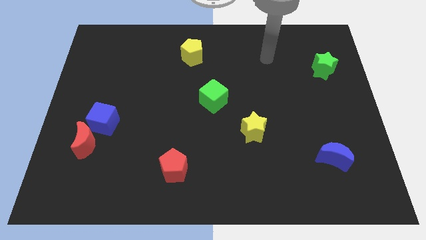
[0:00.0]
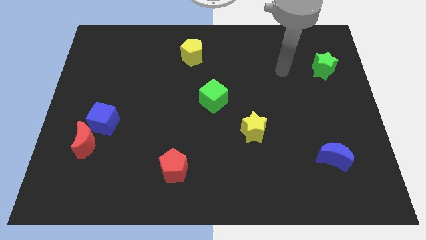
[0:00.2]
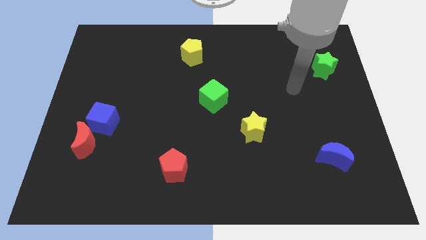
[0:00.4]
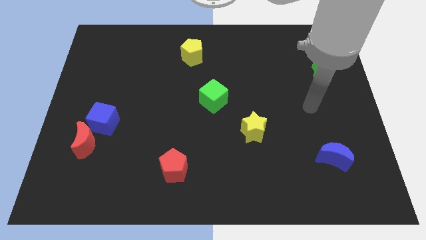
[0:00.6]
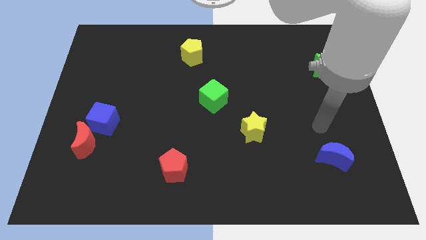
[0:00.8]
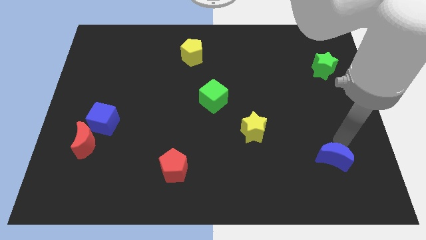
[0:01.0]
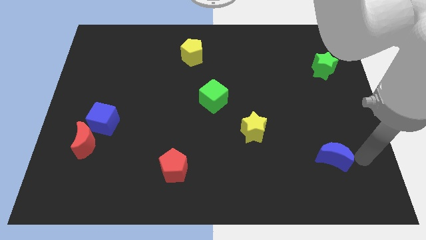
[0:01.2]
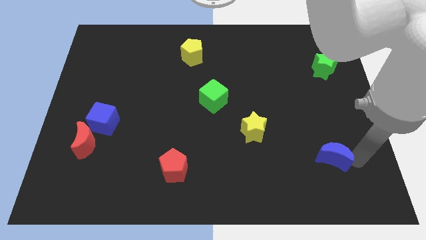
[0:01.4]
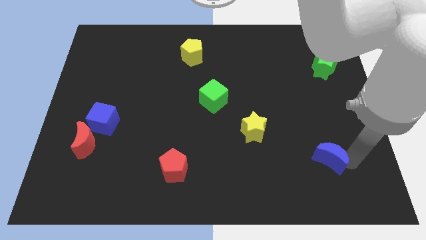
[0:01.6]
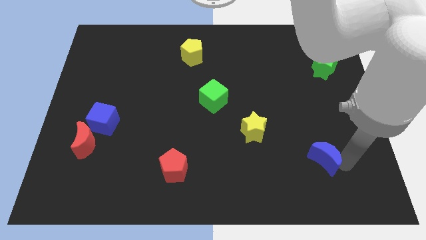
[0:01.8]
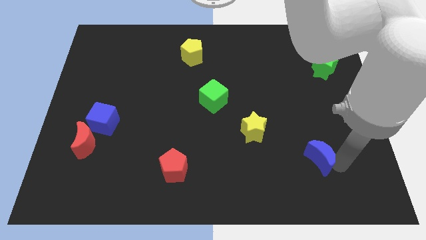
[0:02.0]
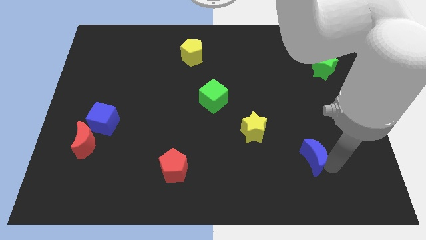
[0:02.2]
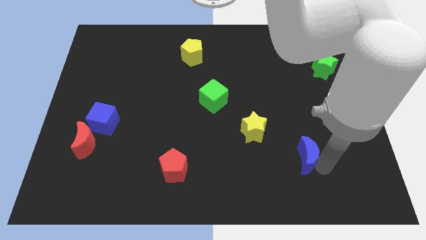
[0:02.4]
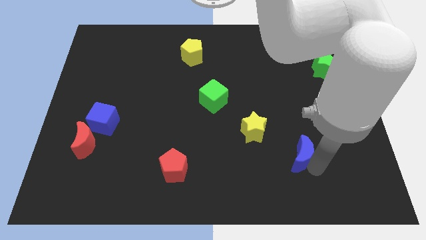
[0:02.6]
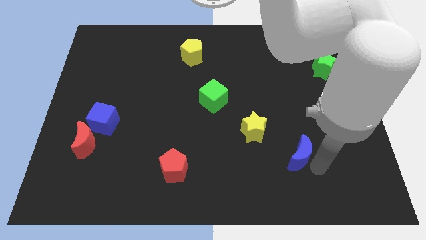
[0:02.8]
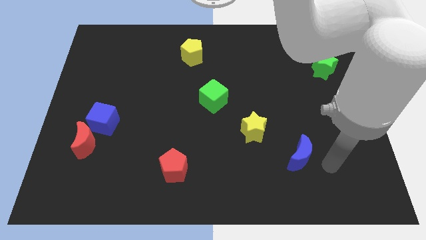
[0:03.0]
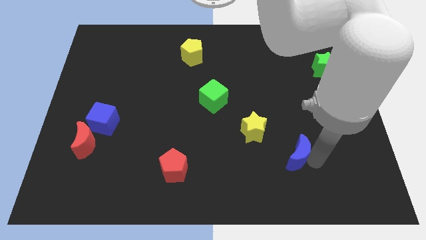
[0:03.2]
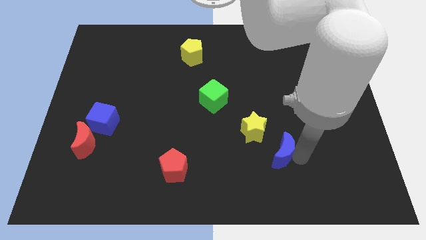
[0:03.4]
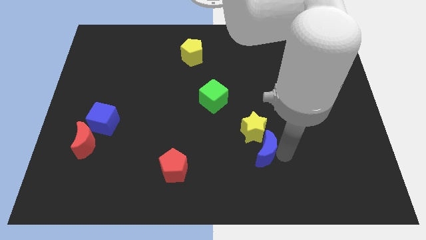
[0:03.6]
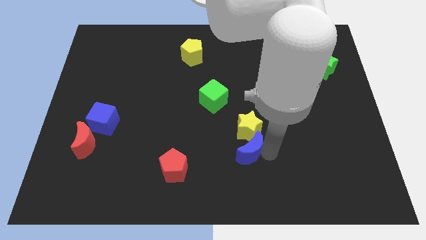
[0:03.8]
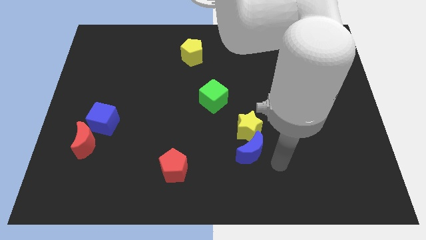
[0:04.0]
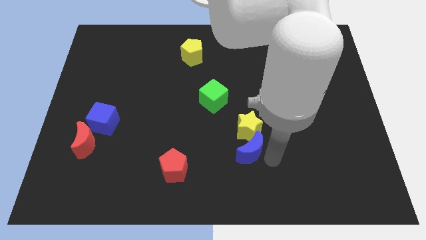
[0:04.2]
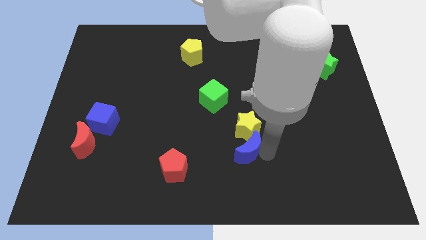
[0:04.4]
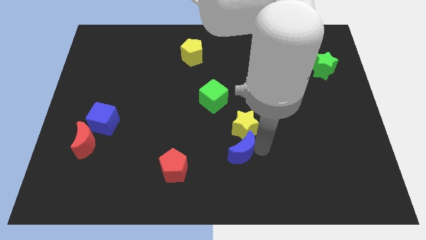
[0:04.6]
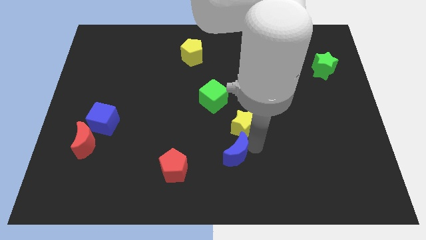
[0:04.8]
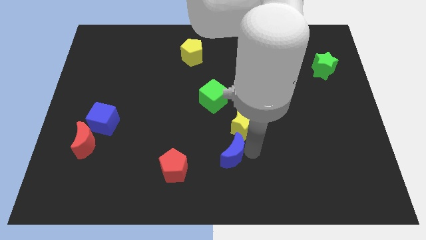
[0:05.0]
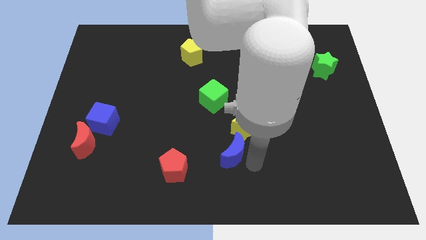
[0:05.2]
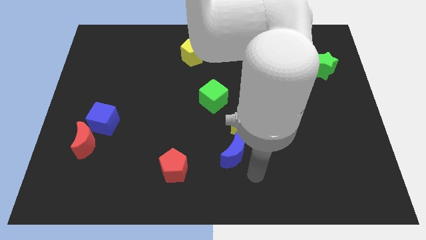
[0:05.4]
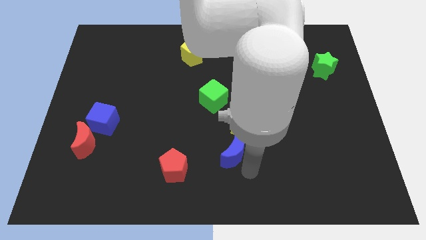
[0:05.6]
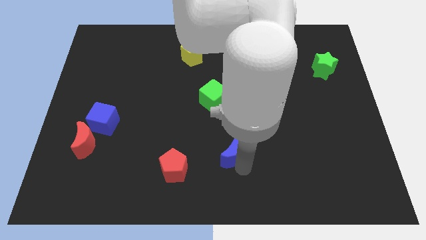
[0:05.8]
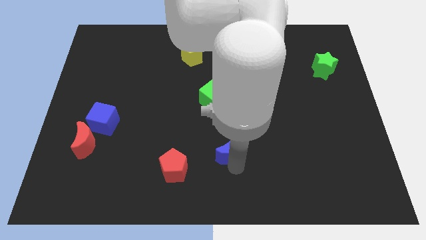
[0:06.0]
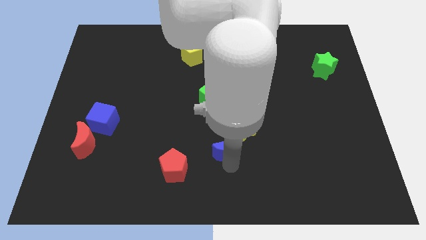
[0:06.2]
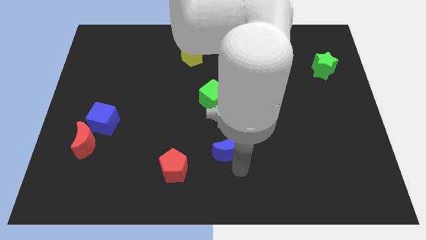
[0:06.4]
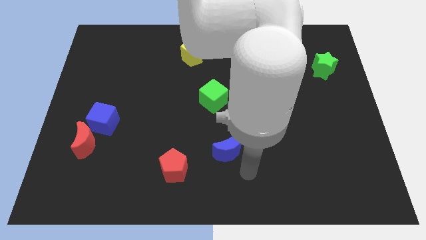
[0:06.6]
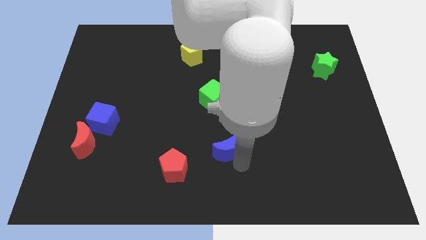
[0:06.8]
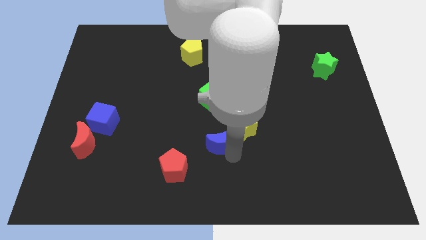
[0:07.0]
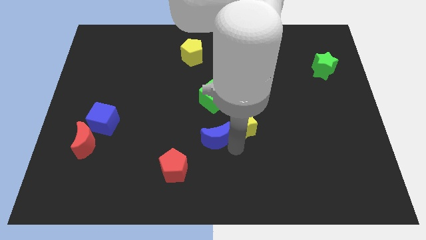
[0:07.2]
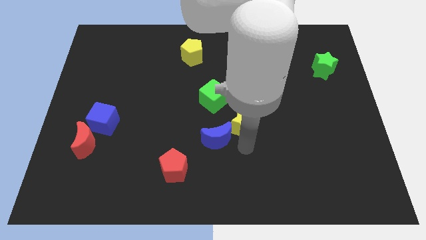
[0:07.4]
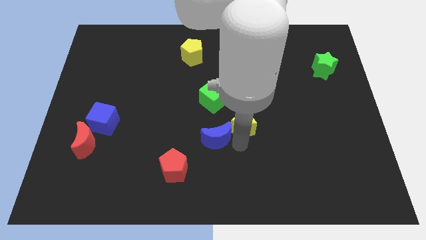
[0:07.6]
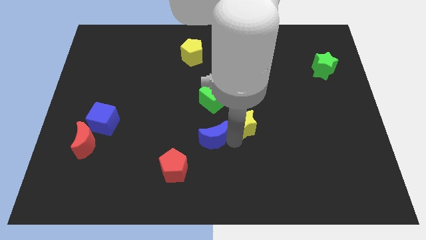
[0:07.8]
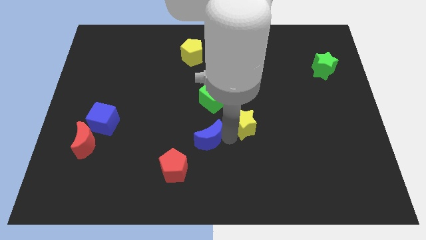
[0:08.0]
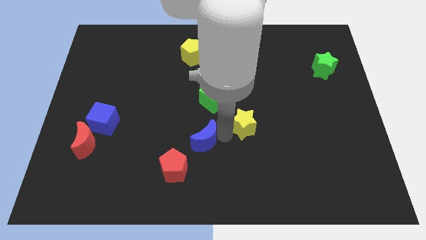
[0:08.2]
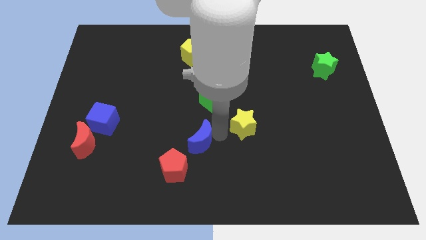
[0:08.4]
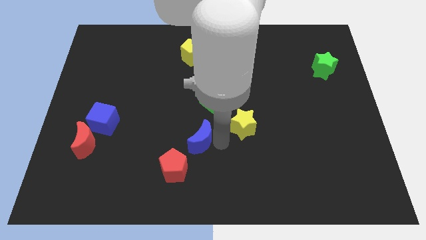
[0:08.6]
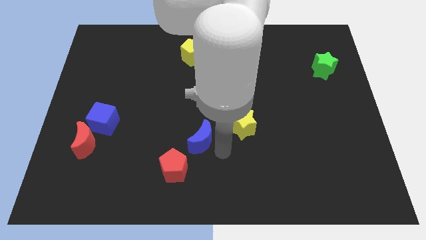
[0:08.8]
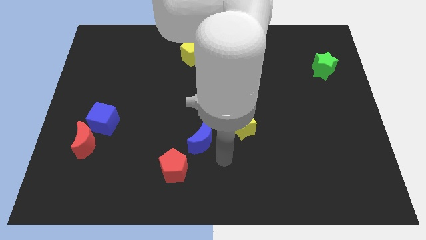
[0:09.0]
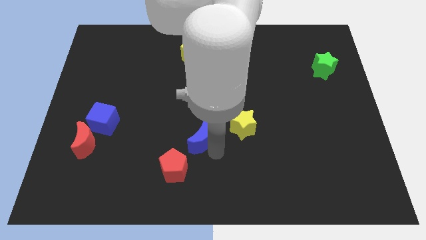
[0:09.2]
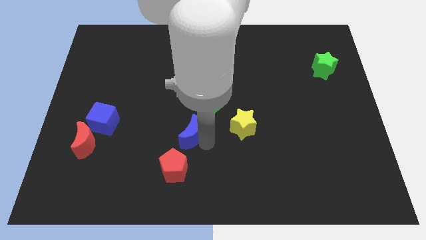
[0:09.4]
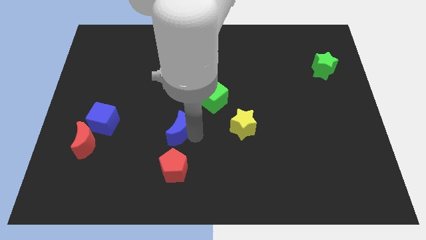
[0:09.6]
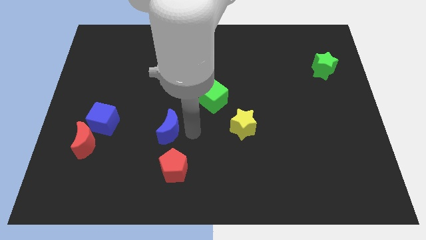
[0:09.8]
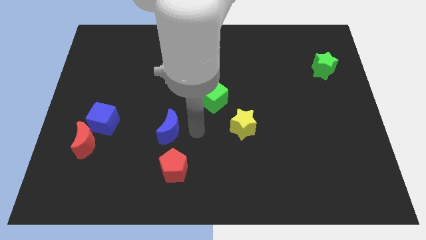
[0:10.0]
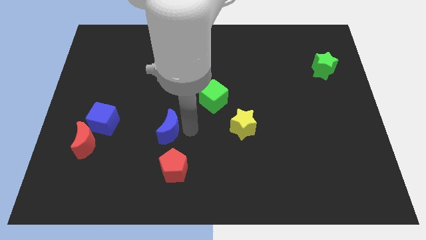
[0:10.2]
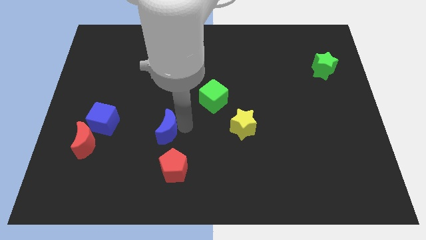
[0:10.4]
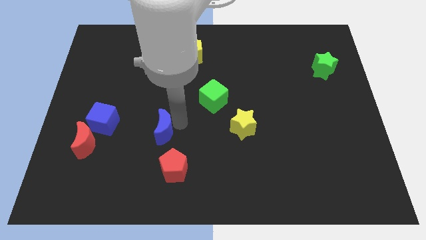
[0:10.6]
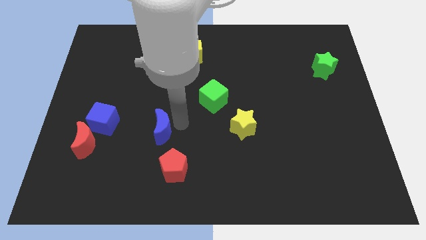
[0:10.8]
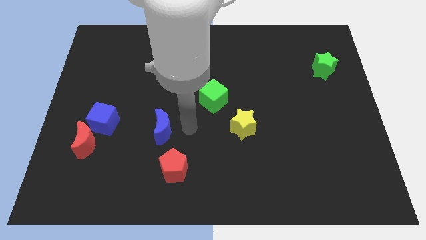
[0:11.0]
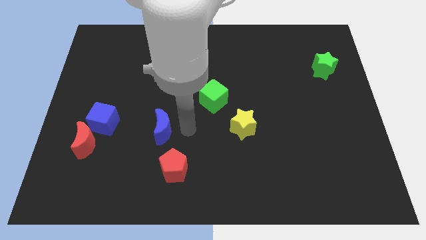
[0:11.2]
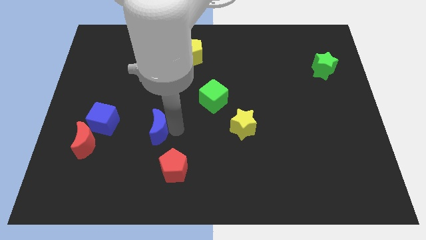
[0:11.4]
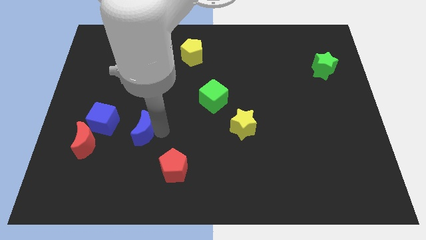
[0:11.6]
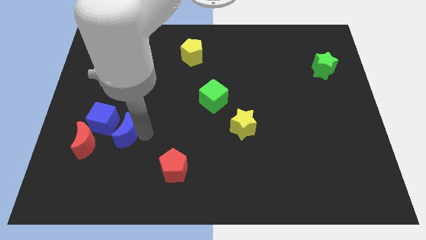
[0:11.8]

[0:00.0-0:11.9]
put the blue moon to the top right side of the red moon

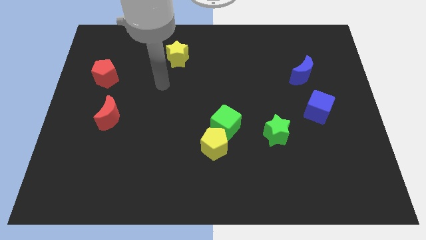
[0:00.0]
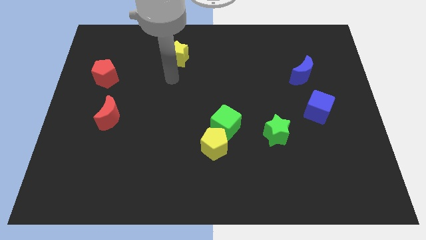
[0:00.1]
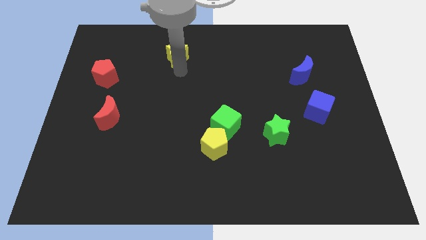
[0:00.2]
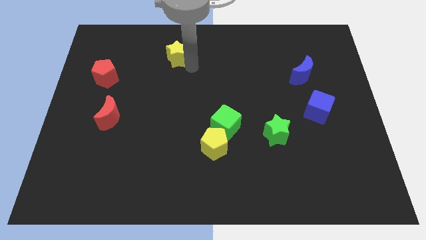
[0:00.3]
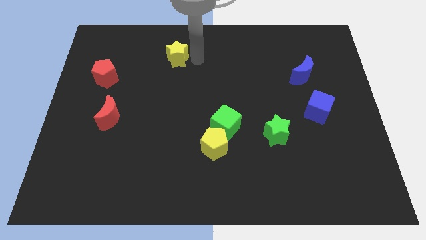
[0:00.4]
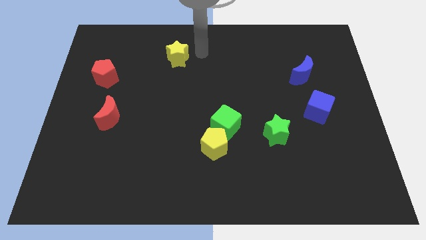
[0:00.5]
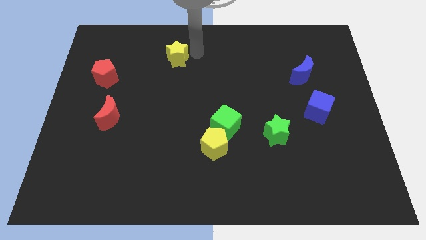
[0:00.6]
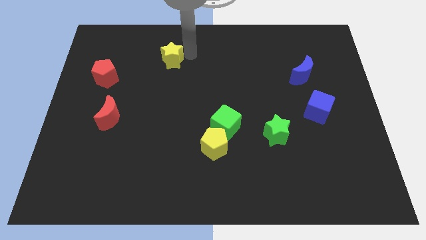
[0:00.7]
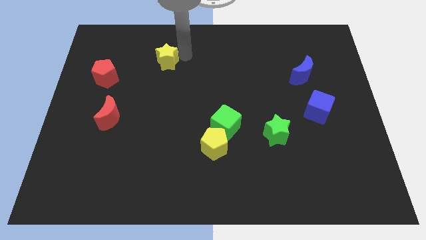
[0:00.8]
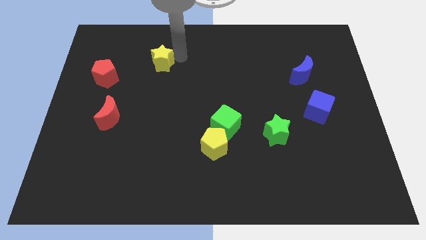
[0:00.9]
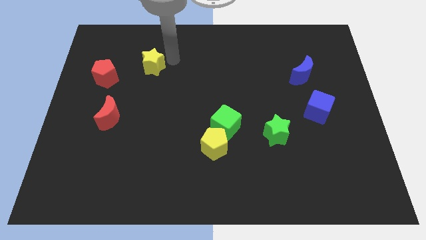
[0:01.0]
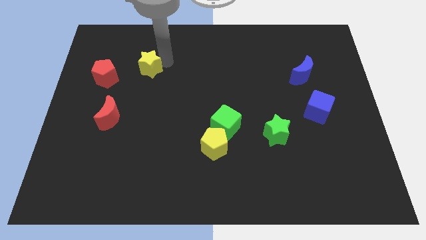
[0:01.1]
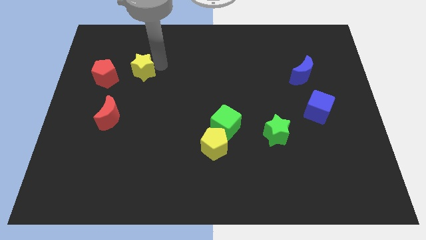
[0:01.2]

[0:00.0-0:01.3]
slide the yellow star diagonally up and to the right of the red pentagon
